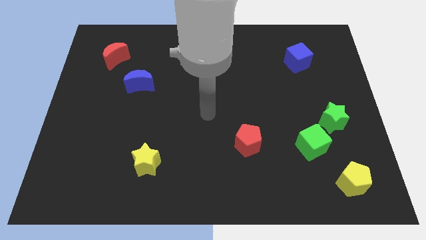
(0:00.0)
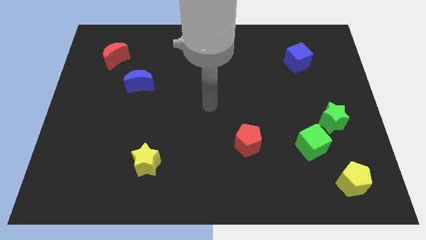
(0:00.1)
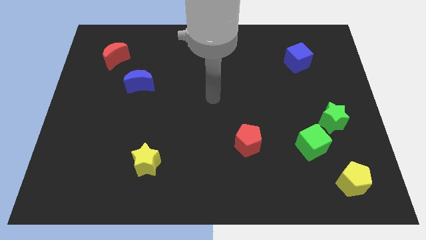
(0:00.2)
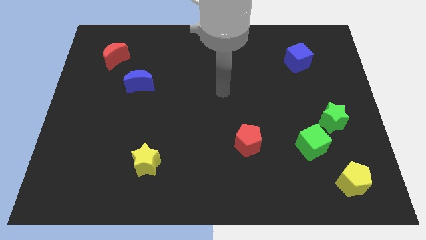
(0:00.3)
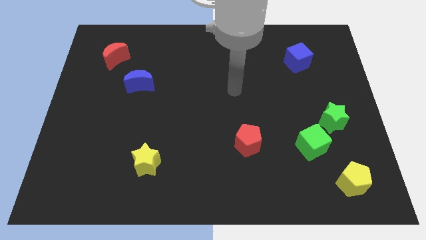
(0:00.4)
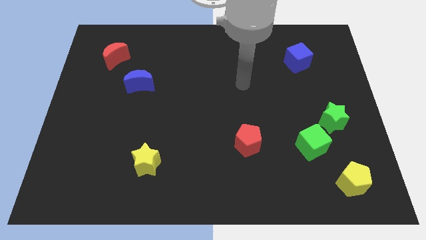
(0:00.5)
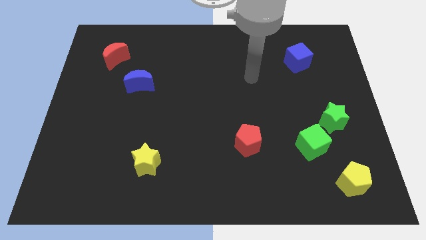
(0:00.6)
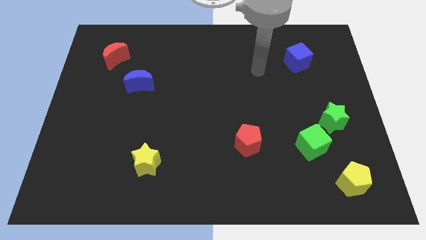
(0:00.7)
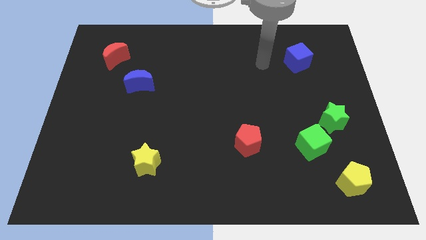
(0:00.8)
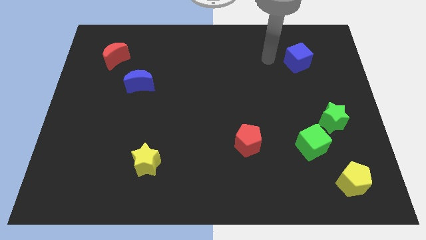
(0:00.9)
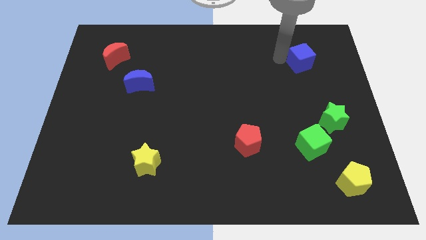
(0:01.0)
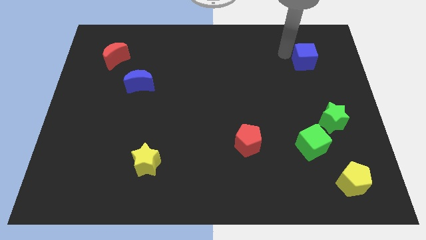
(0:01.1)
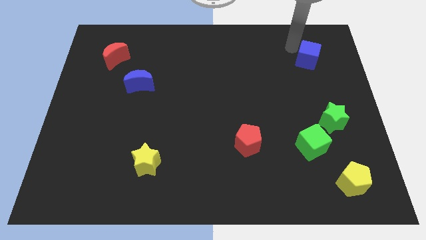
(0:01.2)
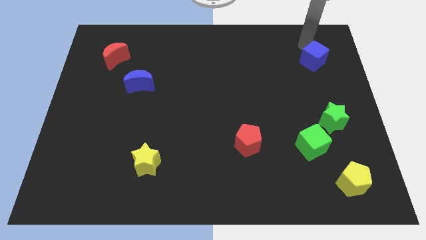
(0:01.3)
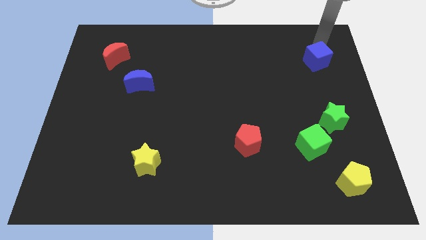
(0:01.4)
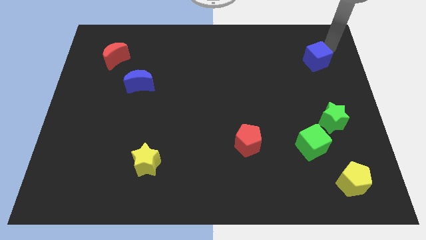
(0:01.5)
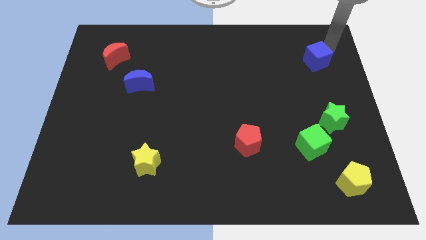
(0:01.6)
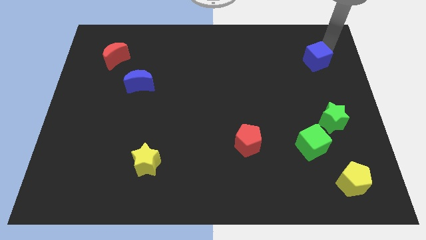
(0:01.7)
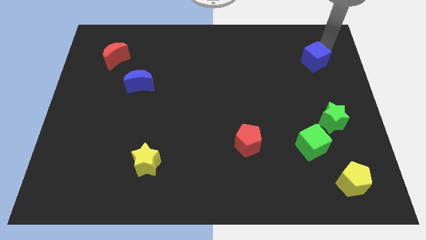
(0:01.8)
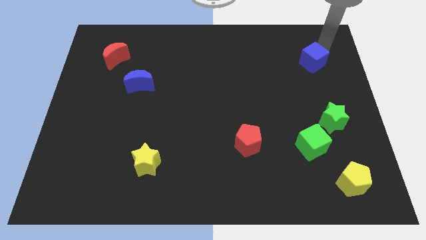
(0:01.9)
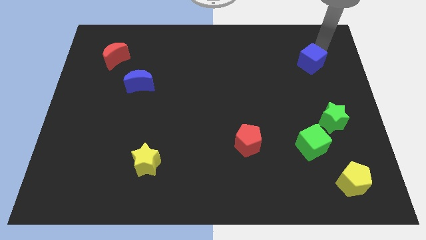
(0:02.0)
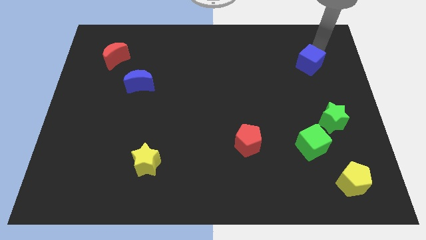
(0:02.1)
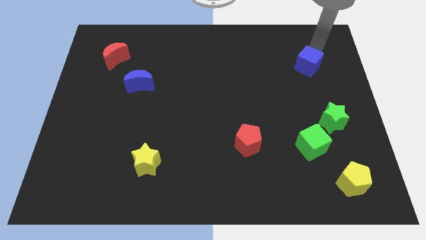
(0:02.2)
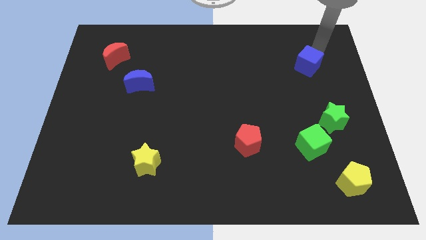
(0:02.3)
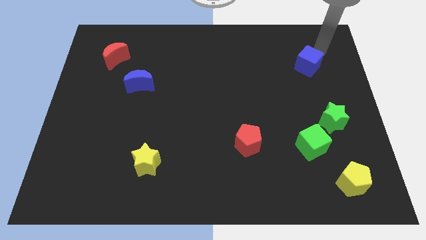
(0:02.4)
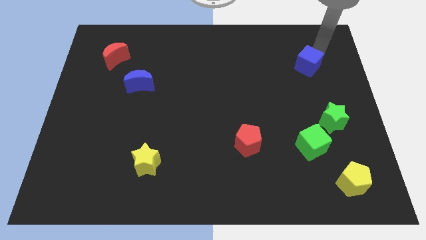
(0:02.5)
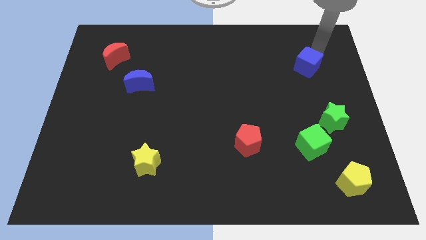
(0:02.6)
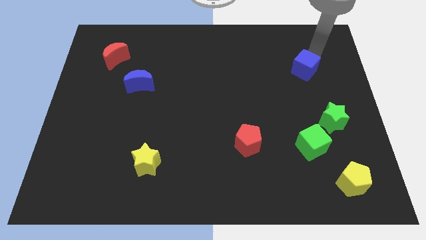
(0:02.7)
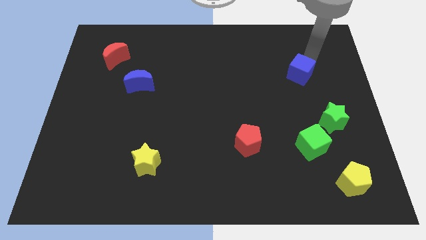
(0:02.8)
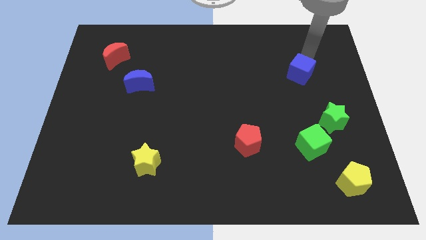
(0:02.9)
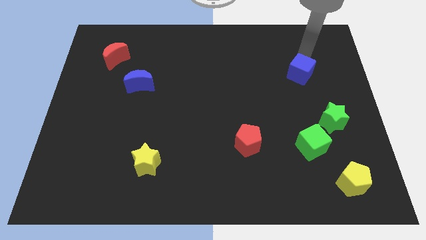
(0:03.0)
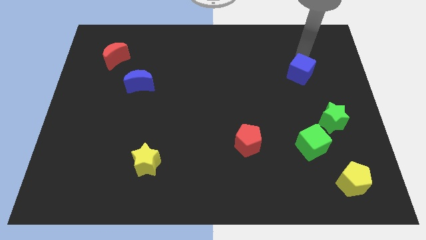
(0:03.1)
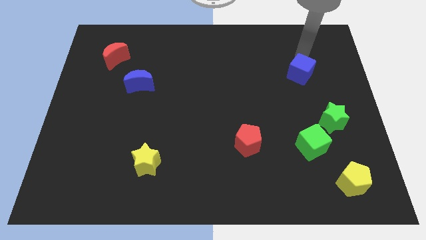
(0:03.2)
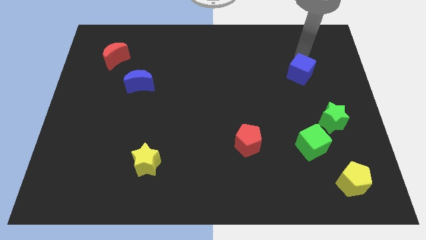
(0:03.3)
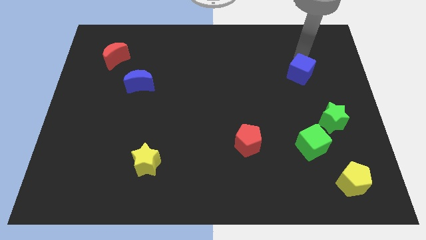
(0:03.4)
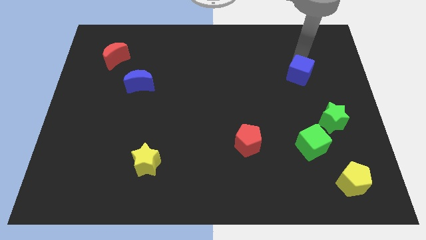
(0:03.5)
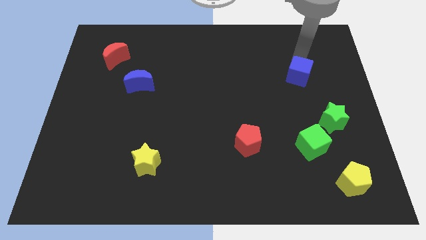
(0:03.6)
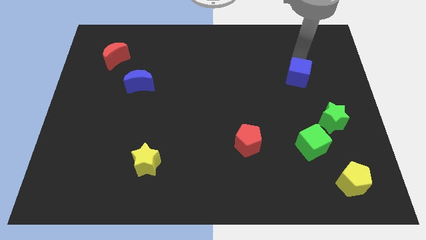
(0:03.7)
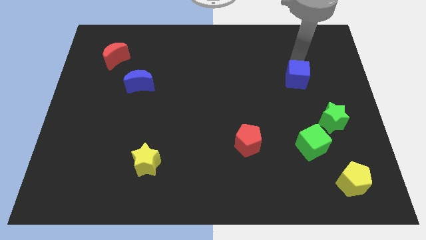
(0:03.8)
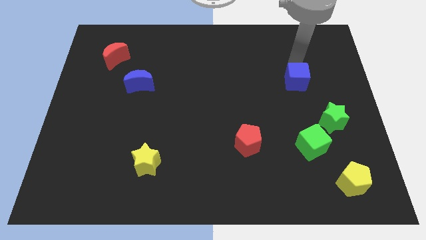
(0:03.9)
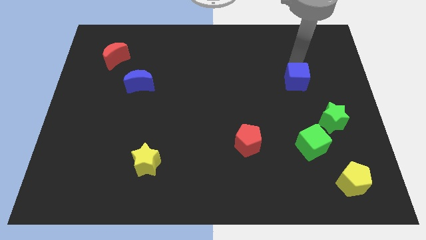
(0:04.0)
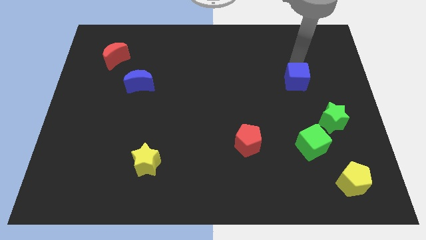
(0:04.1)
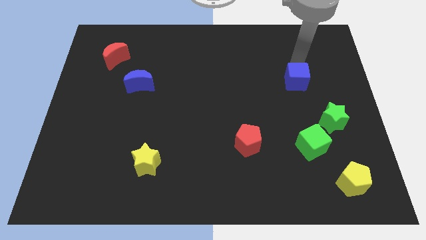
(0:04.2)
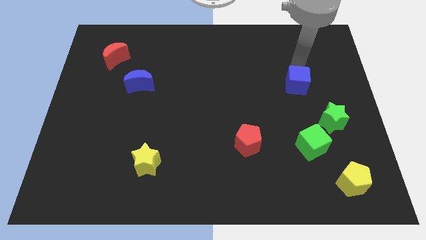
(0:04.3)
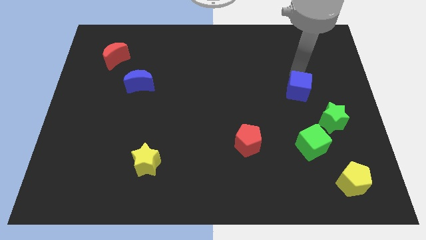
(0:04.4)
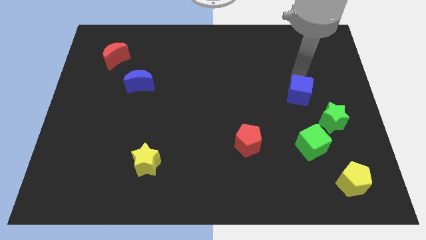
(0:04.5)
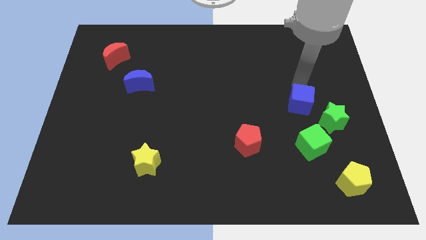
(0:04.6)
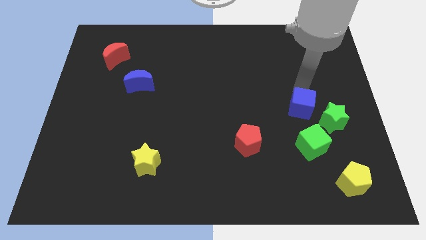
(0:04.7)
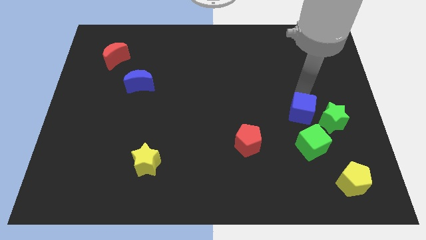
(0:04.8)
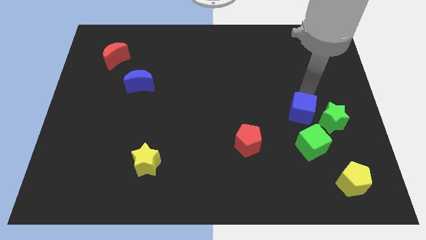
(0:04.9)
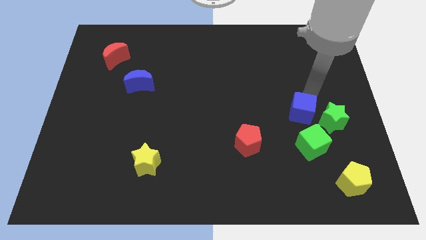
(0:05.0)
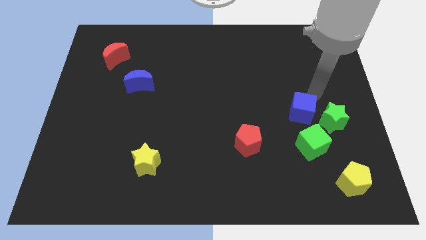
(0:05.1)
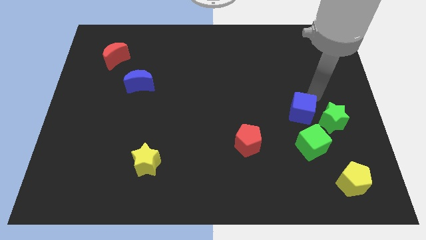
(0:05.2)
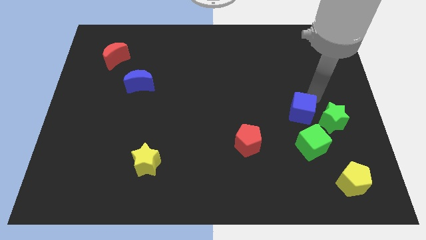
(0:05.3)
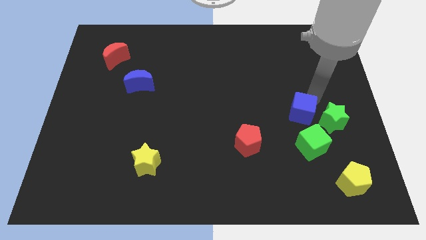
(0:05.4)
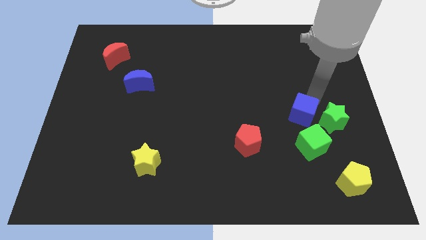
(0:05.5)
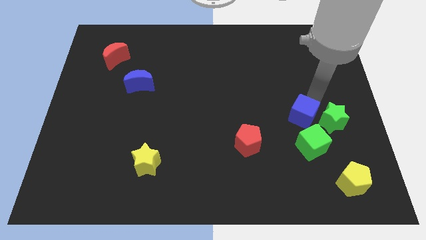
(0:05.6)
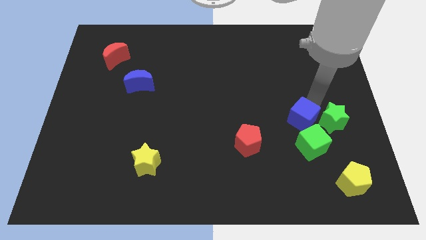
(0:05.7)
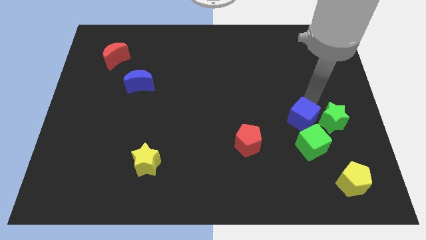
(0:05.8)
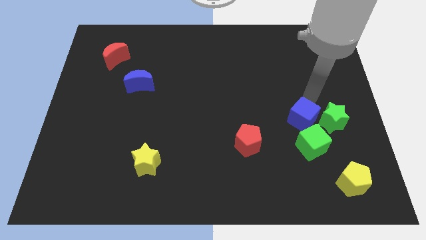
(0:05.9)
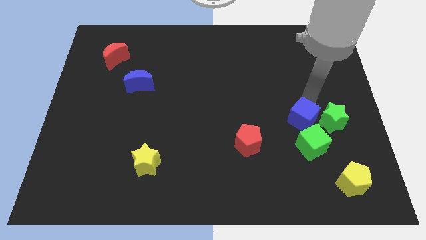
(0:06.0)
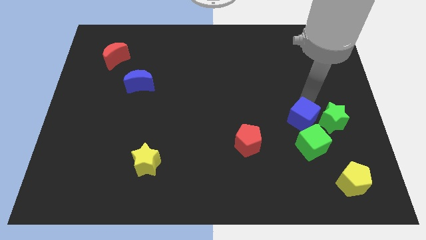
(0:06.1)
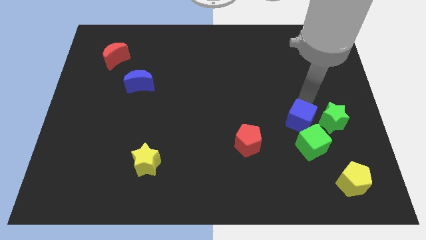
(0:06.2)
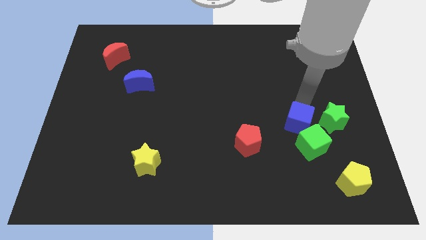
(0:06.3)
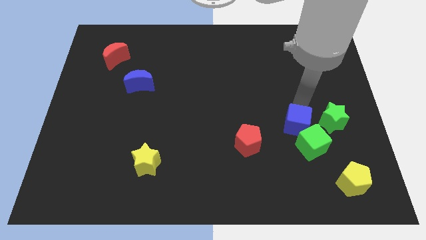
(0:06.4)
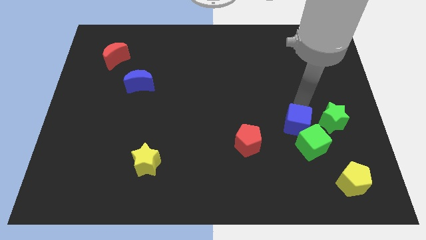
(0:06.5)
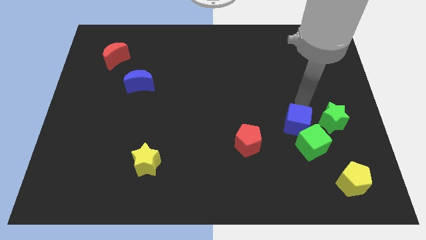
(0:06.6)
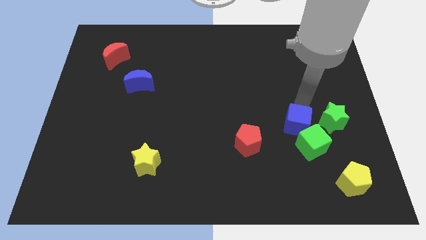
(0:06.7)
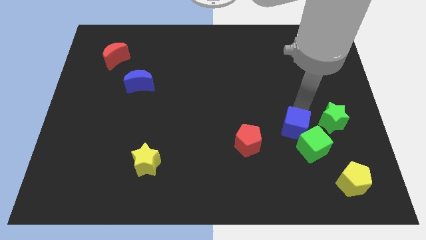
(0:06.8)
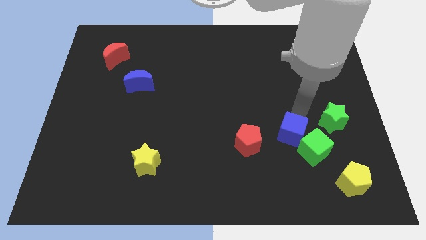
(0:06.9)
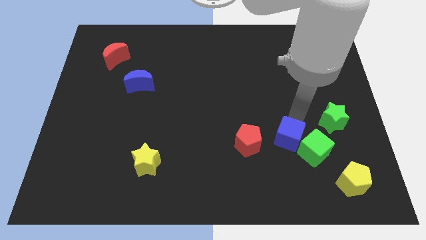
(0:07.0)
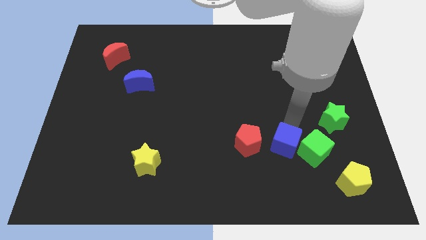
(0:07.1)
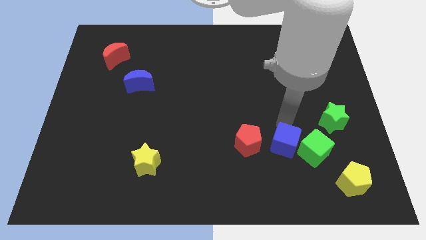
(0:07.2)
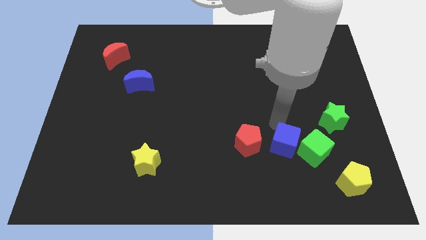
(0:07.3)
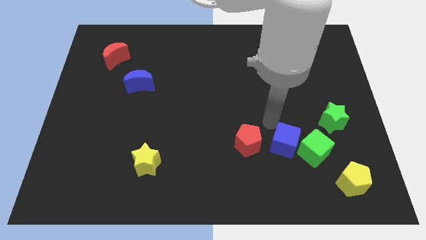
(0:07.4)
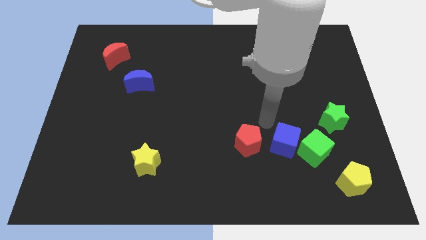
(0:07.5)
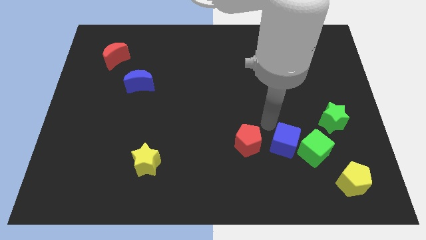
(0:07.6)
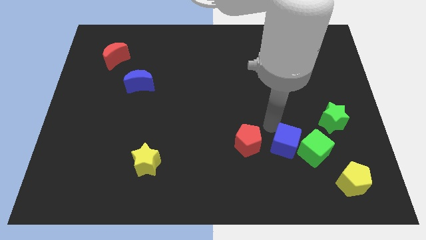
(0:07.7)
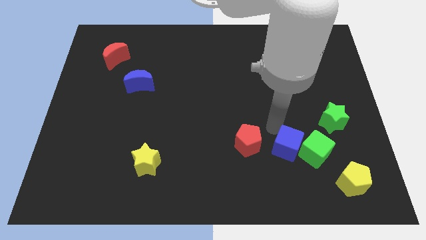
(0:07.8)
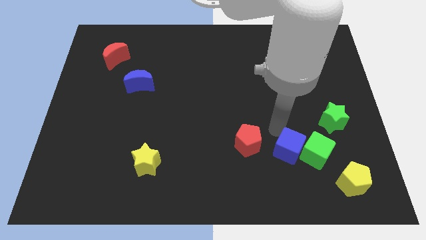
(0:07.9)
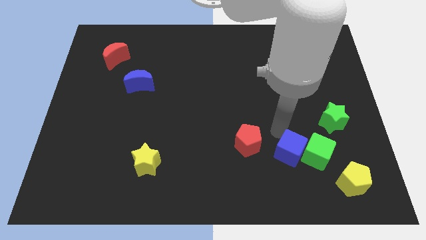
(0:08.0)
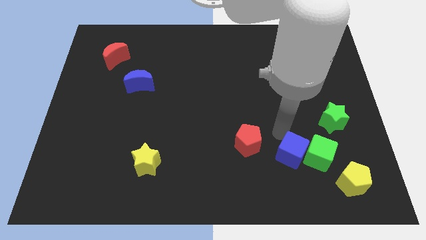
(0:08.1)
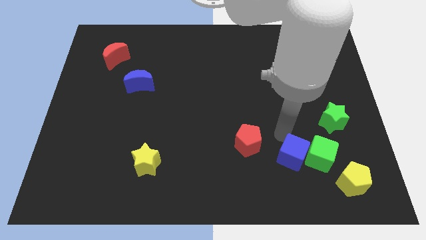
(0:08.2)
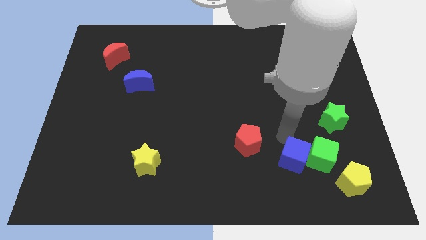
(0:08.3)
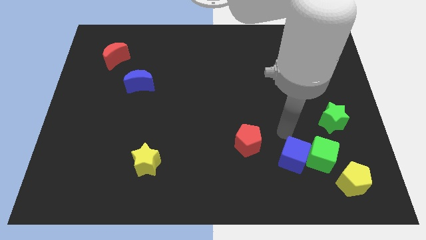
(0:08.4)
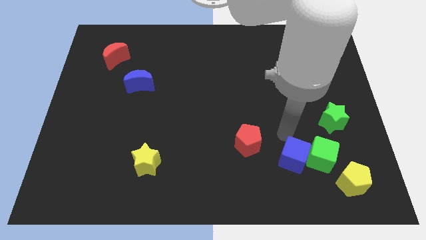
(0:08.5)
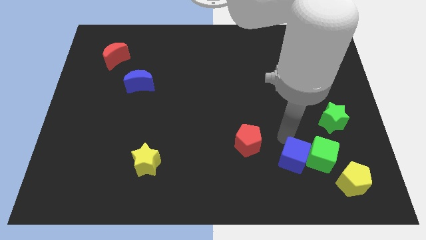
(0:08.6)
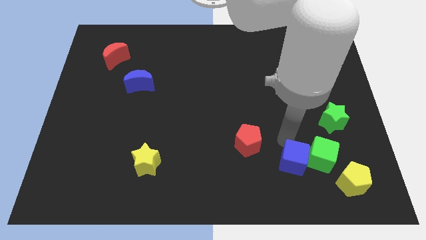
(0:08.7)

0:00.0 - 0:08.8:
move the blue cube to the left of the yellow pentagon
